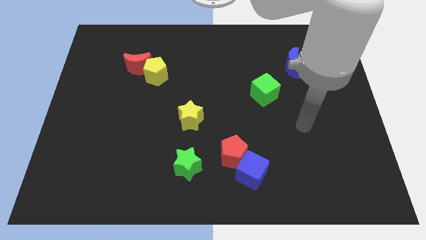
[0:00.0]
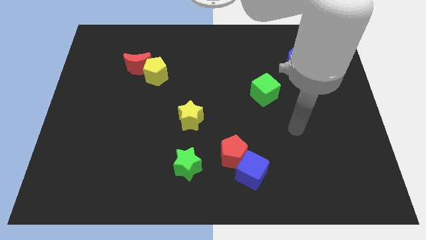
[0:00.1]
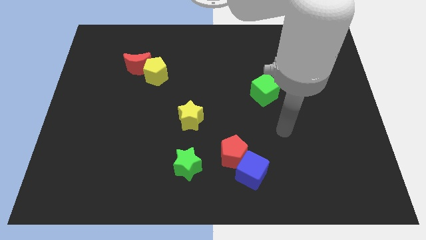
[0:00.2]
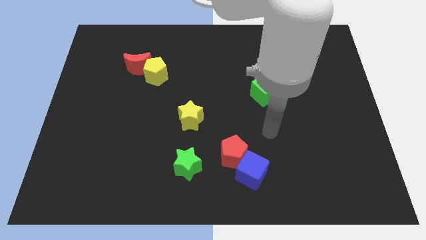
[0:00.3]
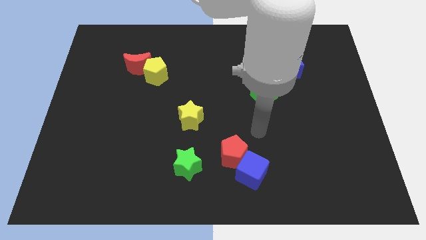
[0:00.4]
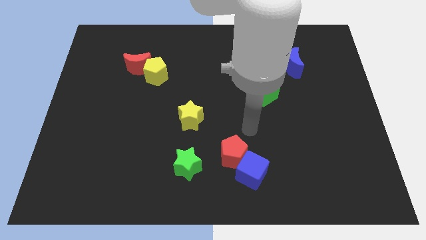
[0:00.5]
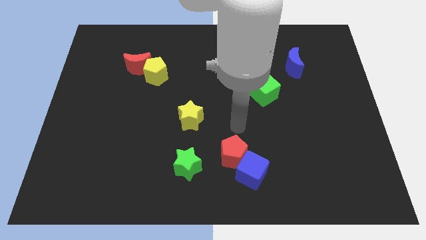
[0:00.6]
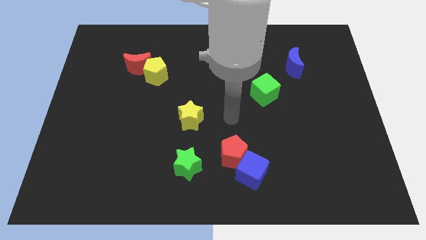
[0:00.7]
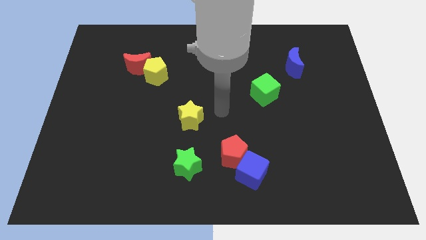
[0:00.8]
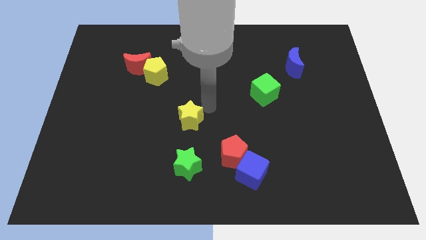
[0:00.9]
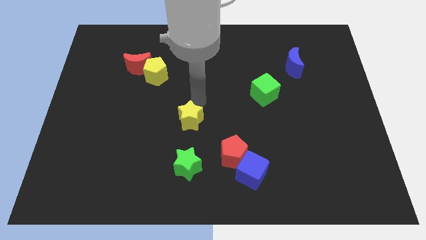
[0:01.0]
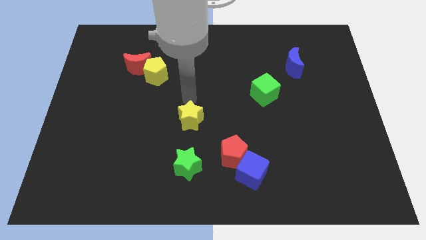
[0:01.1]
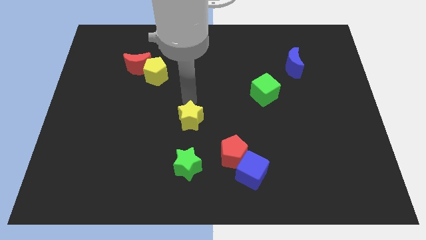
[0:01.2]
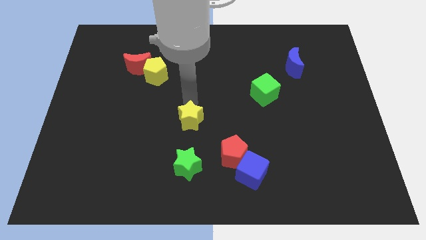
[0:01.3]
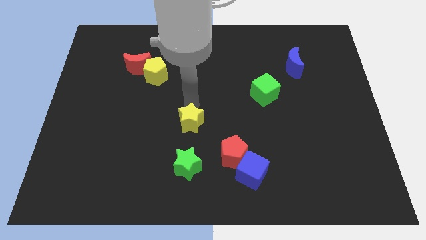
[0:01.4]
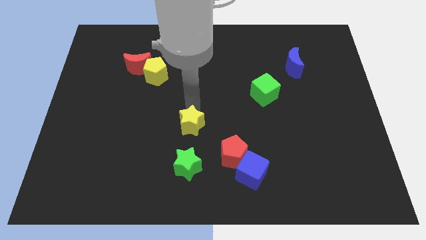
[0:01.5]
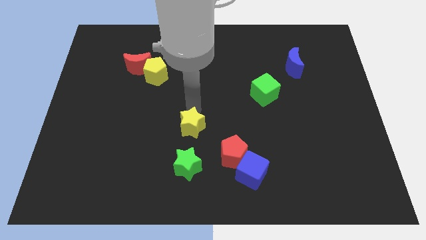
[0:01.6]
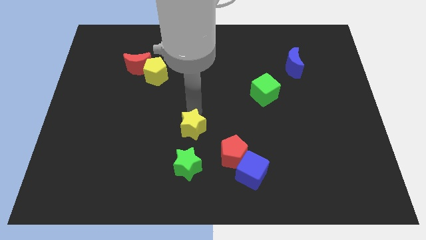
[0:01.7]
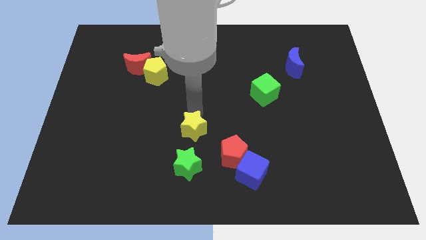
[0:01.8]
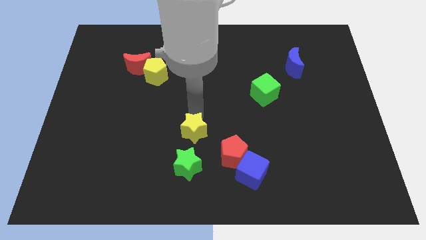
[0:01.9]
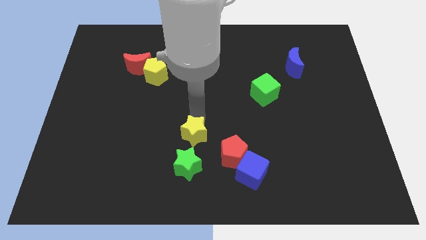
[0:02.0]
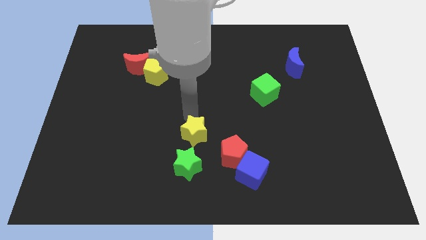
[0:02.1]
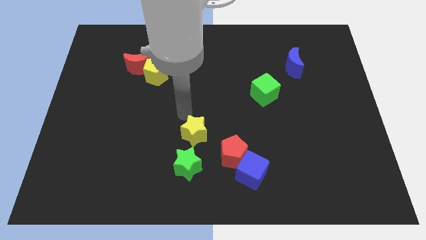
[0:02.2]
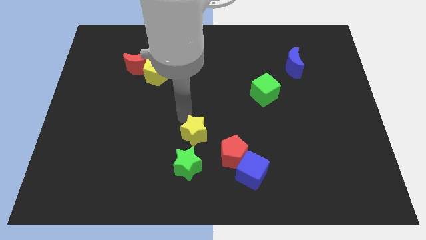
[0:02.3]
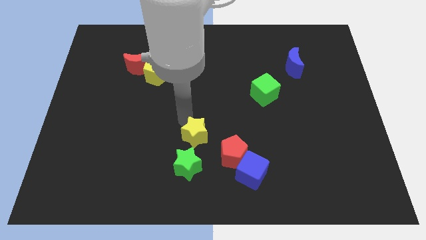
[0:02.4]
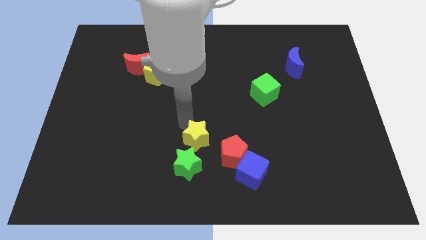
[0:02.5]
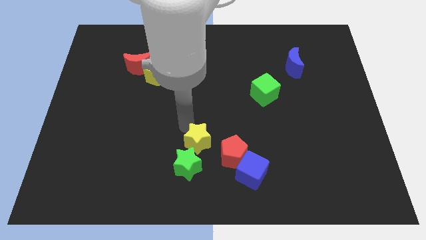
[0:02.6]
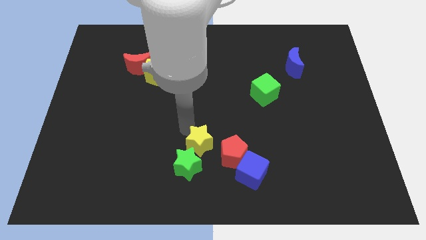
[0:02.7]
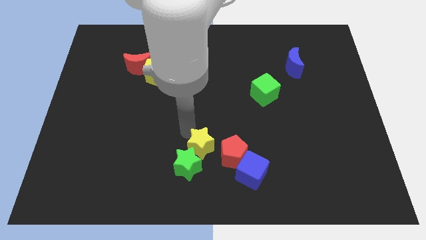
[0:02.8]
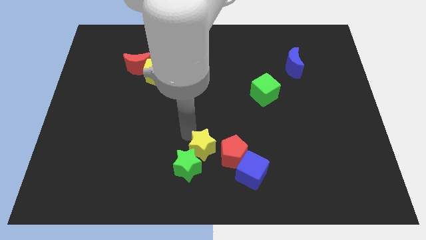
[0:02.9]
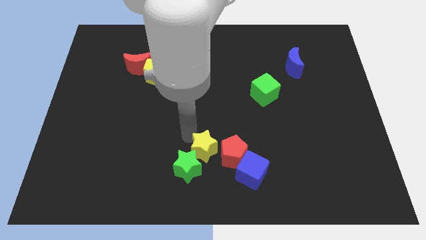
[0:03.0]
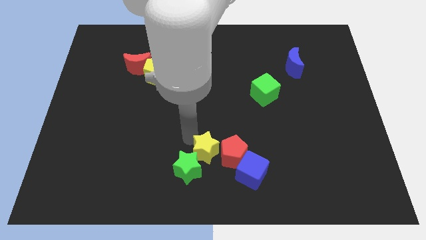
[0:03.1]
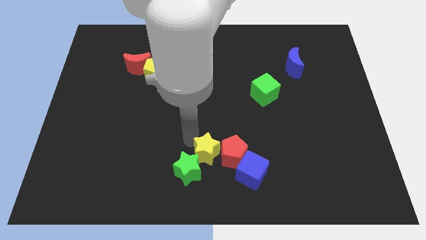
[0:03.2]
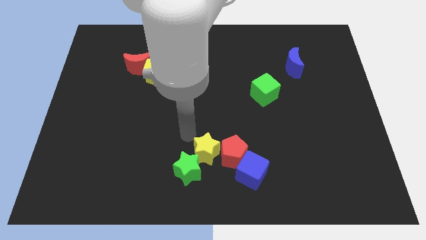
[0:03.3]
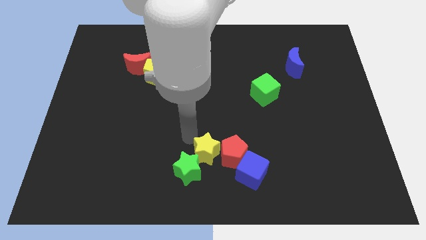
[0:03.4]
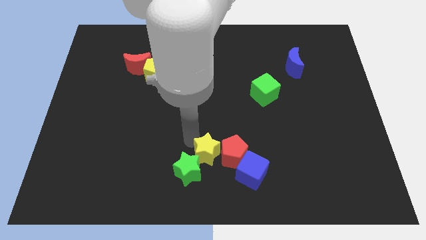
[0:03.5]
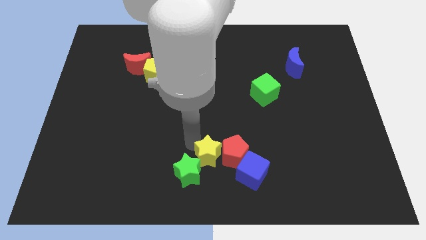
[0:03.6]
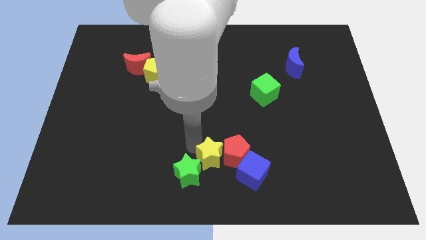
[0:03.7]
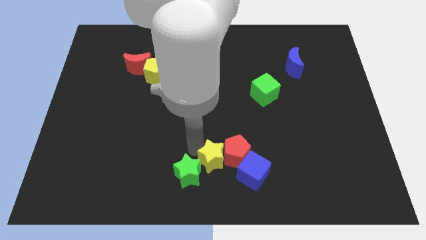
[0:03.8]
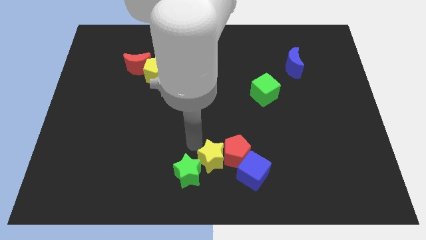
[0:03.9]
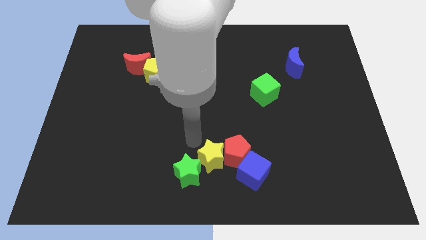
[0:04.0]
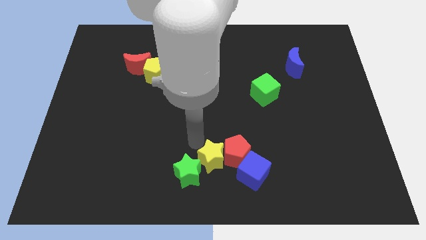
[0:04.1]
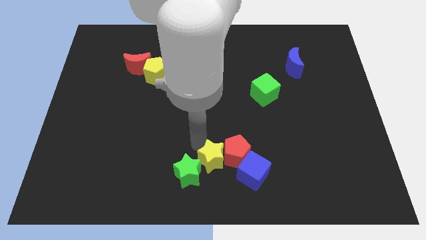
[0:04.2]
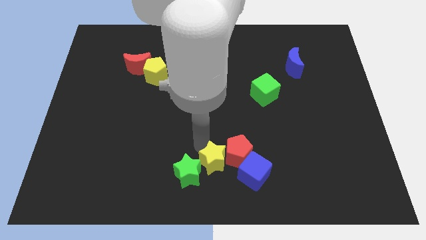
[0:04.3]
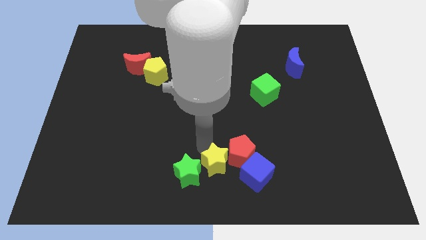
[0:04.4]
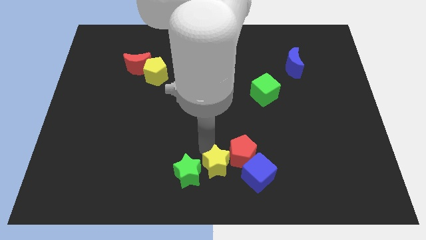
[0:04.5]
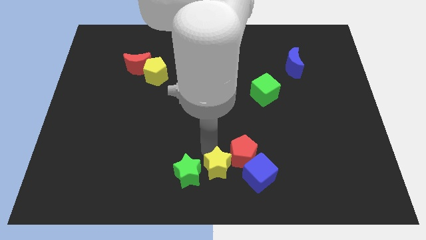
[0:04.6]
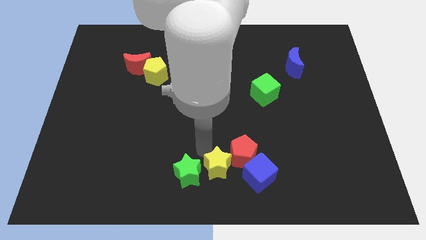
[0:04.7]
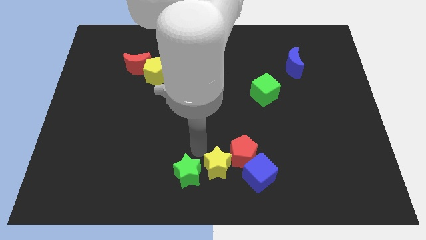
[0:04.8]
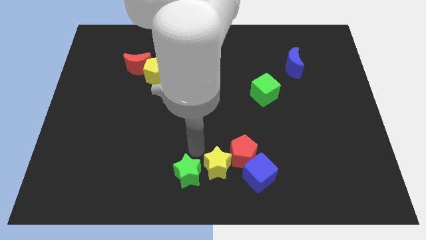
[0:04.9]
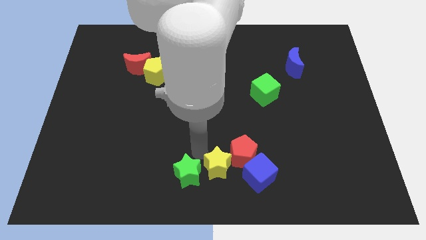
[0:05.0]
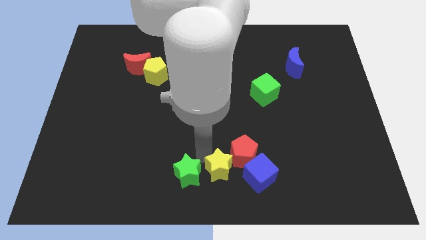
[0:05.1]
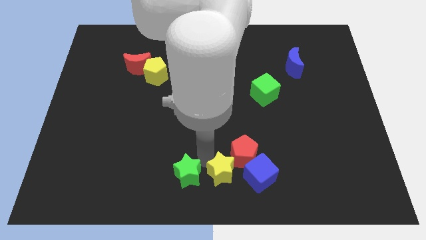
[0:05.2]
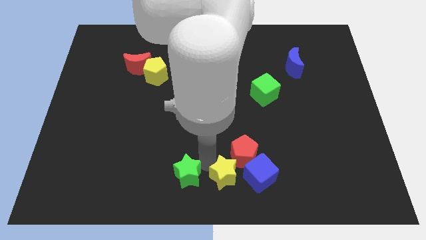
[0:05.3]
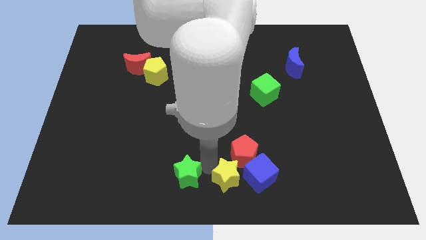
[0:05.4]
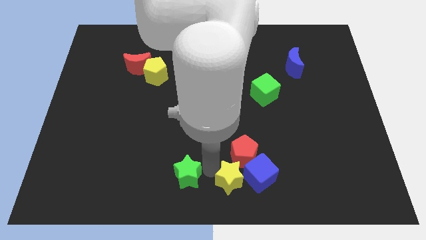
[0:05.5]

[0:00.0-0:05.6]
slide the yellow star close to the blue cube

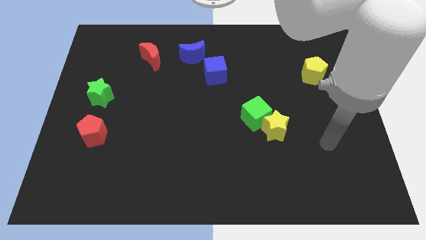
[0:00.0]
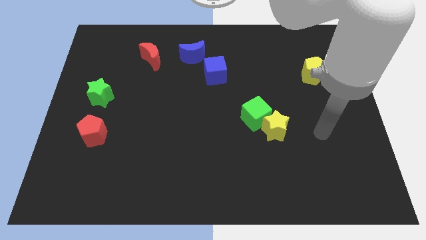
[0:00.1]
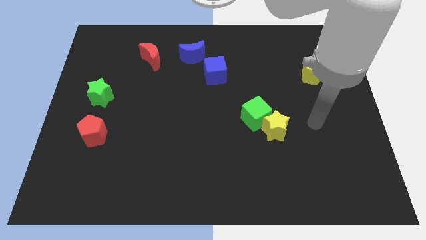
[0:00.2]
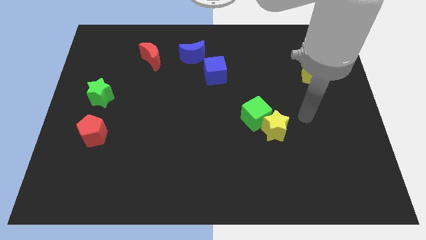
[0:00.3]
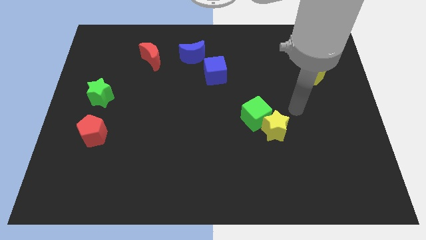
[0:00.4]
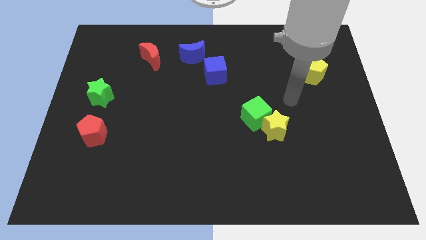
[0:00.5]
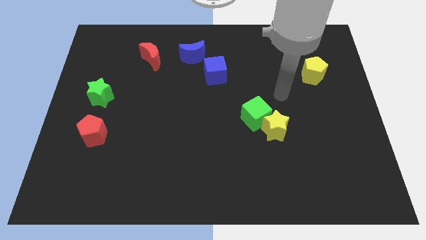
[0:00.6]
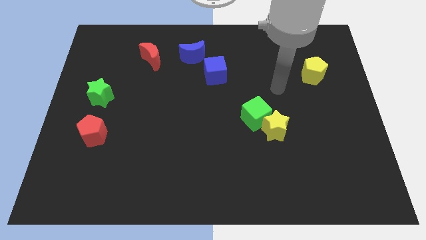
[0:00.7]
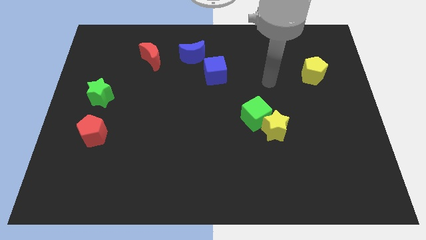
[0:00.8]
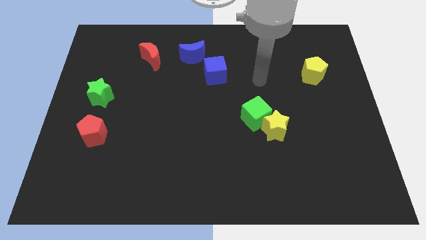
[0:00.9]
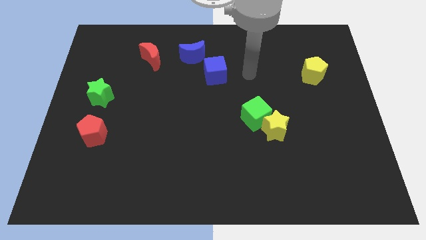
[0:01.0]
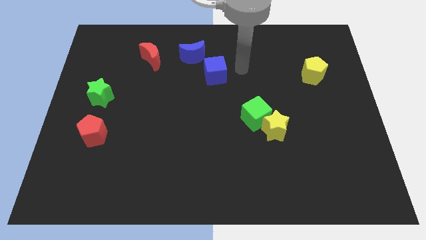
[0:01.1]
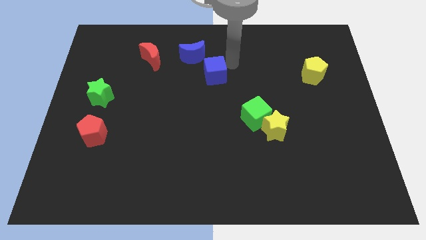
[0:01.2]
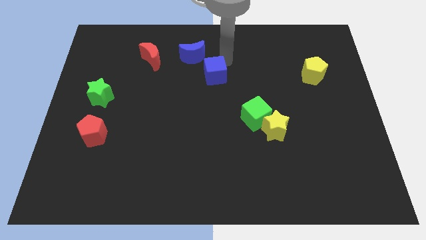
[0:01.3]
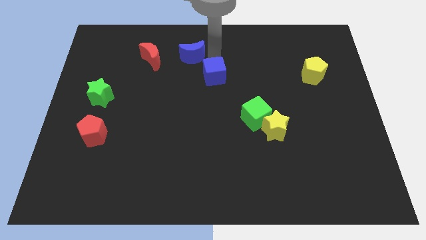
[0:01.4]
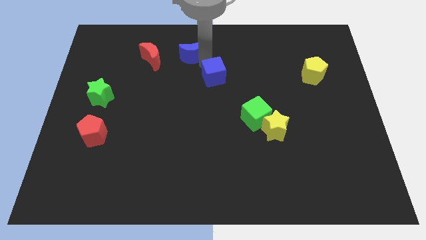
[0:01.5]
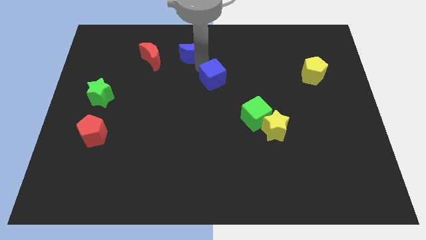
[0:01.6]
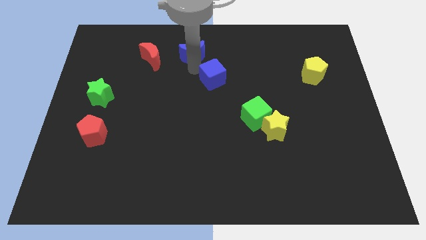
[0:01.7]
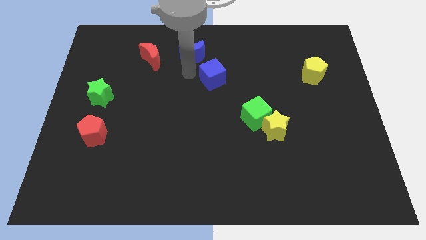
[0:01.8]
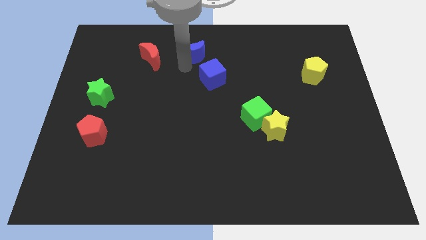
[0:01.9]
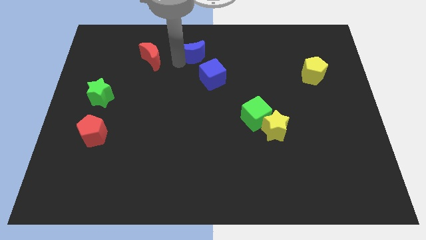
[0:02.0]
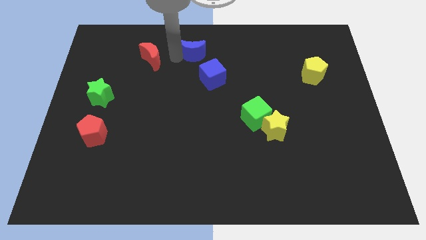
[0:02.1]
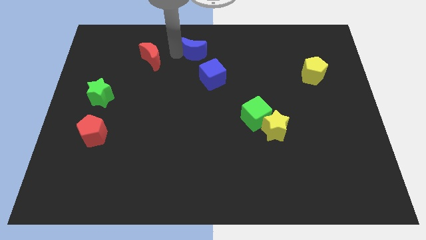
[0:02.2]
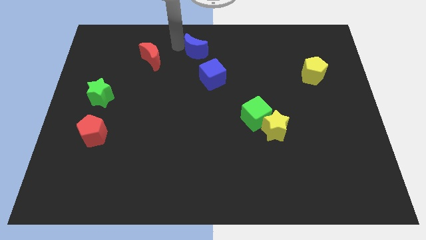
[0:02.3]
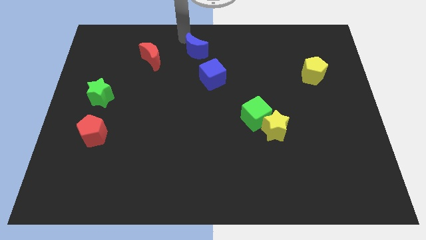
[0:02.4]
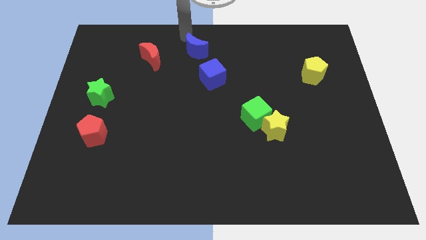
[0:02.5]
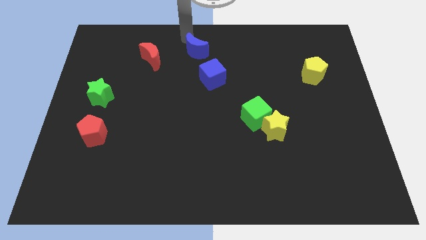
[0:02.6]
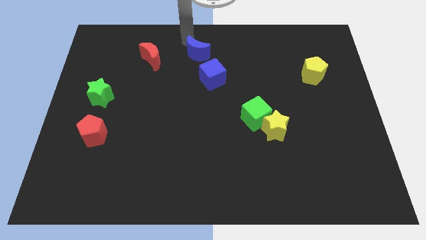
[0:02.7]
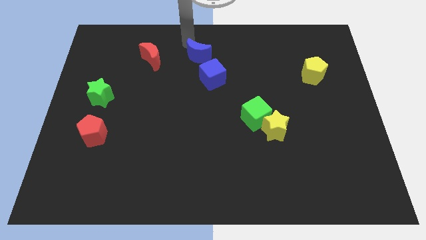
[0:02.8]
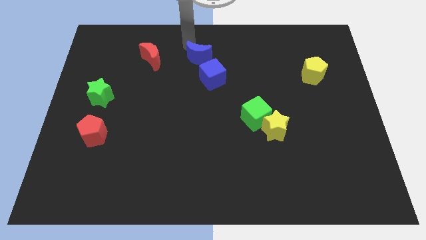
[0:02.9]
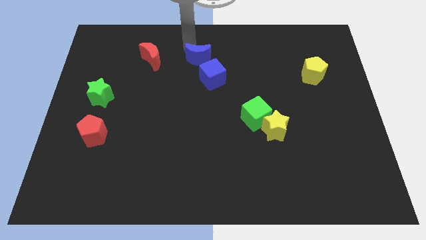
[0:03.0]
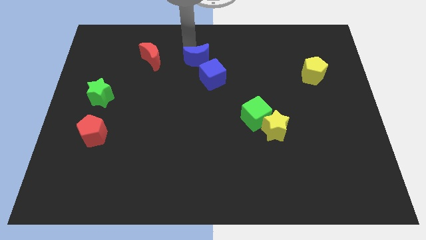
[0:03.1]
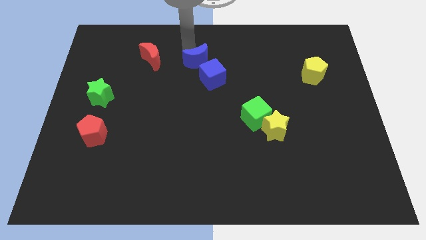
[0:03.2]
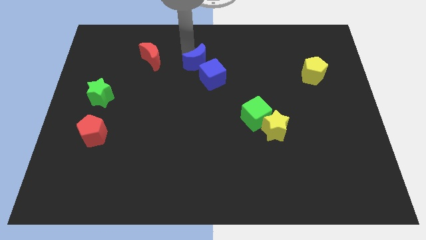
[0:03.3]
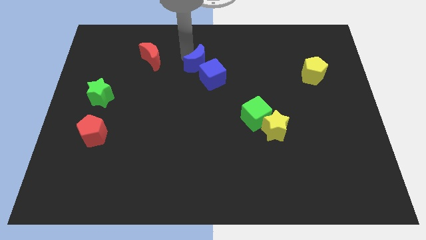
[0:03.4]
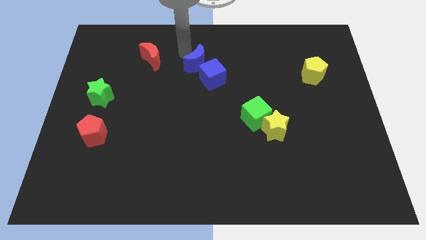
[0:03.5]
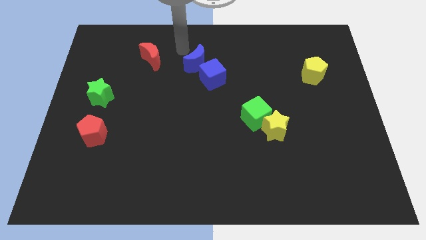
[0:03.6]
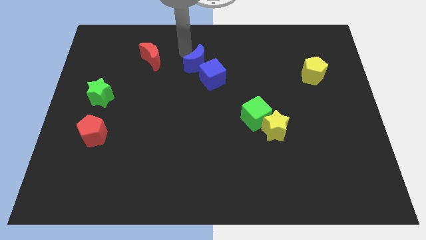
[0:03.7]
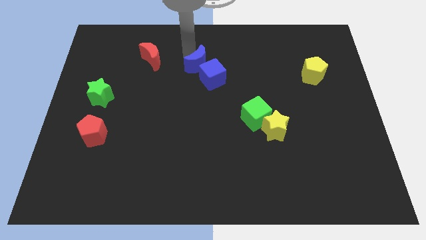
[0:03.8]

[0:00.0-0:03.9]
put the blue moon towards the blue cube
